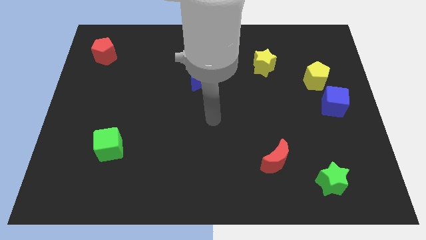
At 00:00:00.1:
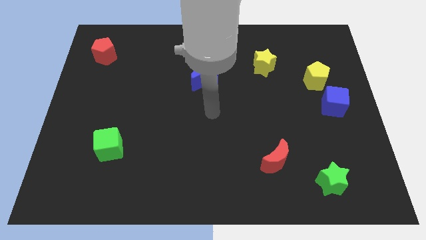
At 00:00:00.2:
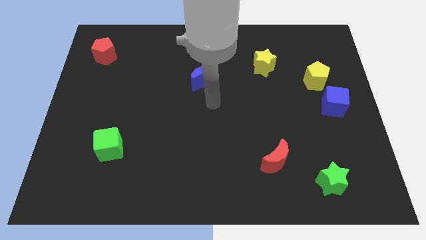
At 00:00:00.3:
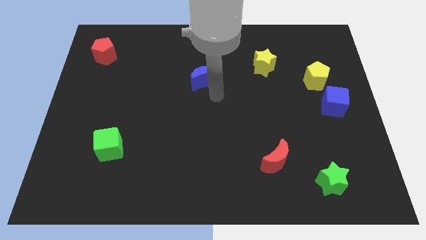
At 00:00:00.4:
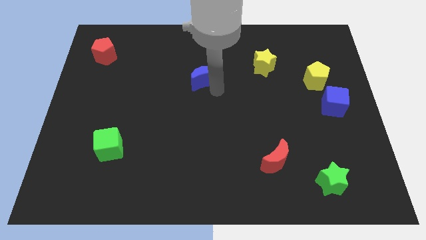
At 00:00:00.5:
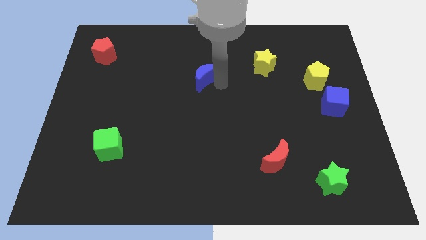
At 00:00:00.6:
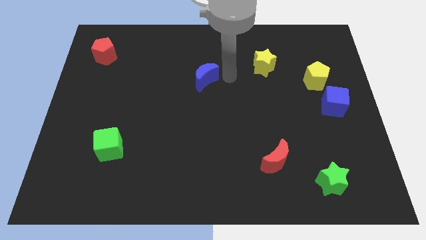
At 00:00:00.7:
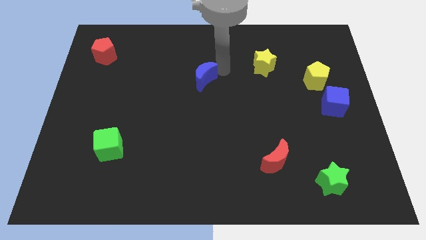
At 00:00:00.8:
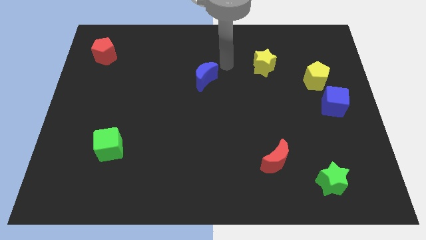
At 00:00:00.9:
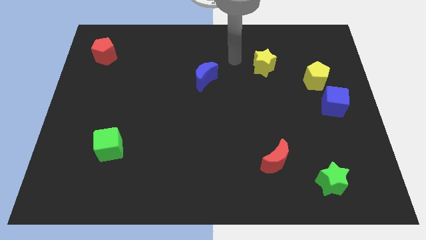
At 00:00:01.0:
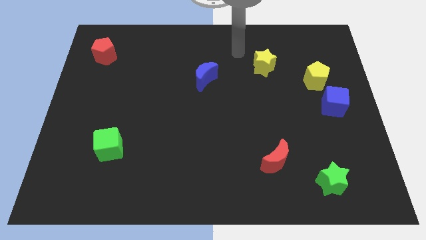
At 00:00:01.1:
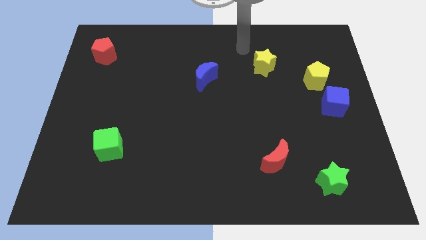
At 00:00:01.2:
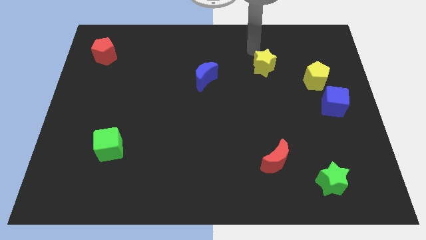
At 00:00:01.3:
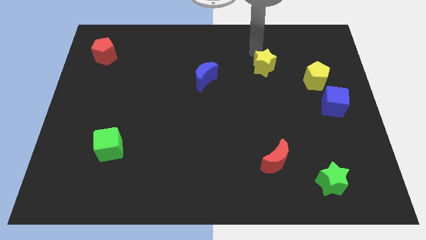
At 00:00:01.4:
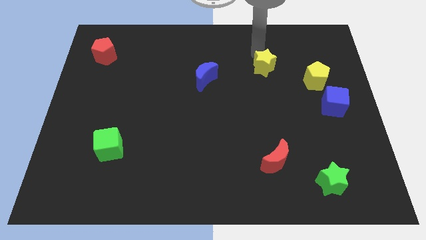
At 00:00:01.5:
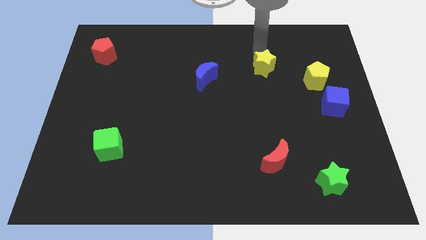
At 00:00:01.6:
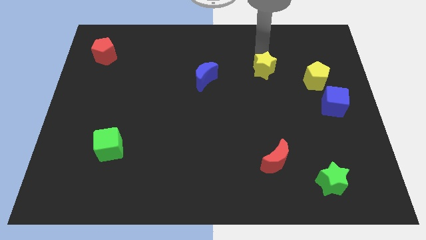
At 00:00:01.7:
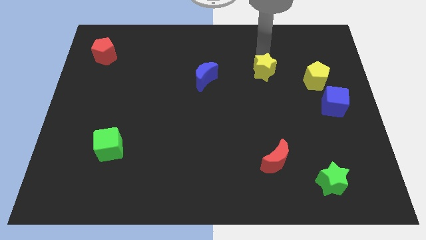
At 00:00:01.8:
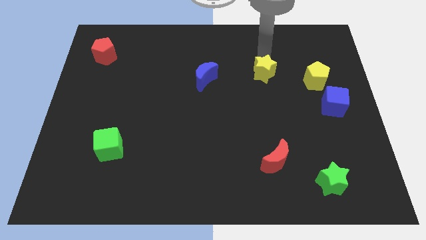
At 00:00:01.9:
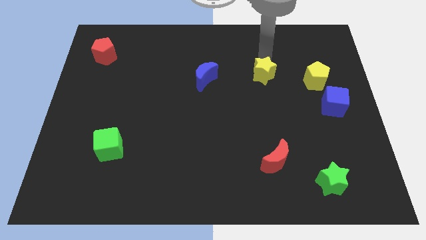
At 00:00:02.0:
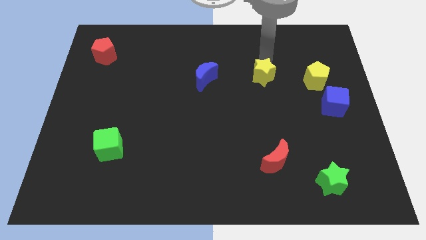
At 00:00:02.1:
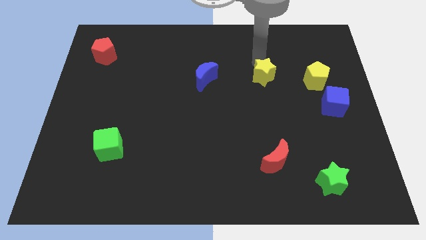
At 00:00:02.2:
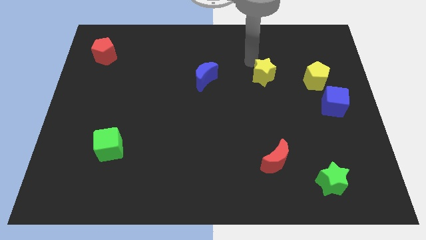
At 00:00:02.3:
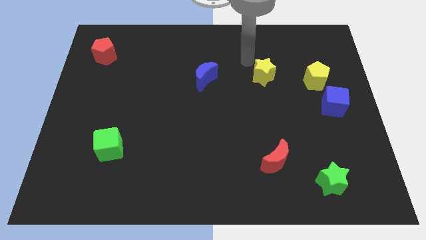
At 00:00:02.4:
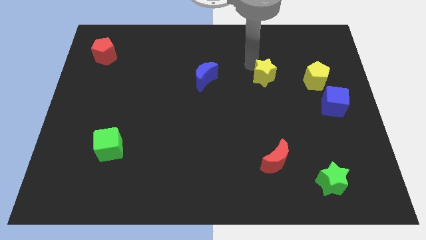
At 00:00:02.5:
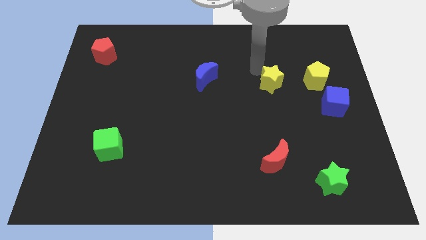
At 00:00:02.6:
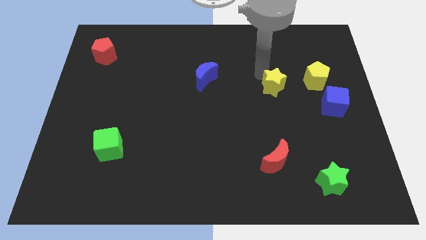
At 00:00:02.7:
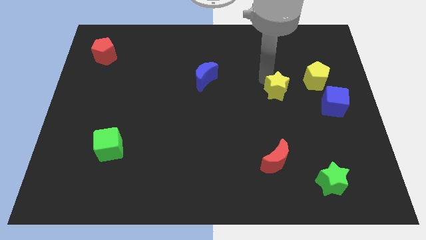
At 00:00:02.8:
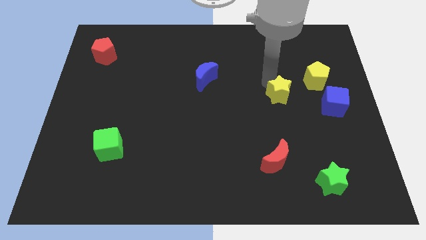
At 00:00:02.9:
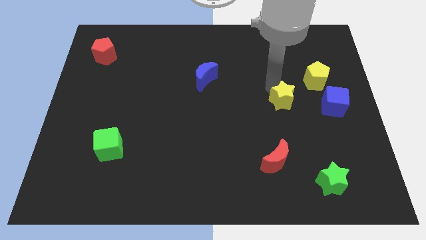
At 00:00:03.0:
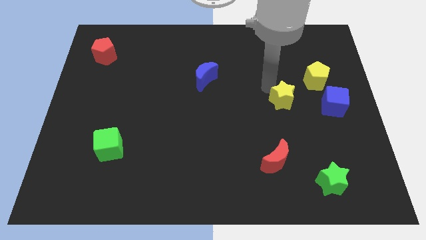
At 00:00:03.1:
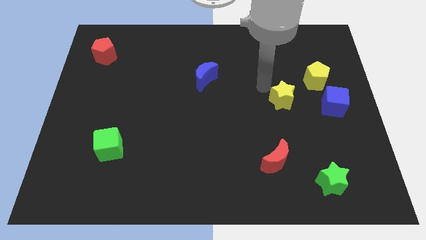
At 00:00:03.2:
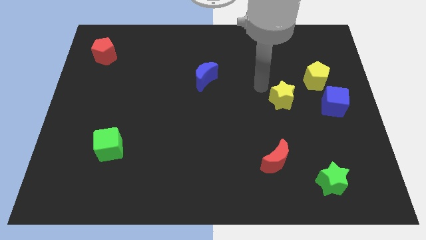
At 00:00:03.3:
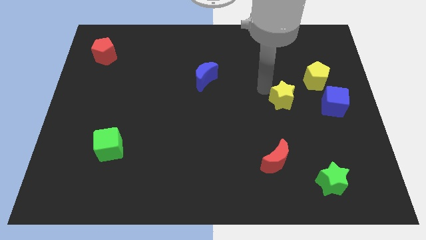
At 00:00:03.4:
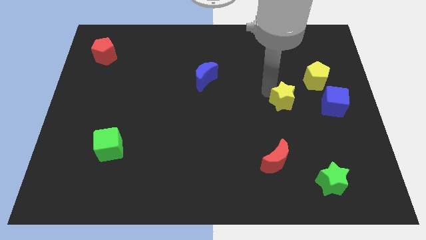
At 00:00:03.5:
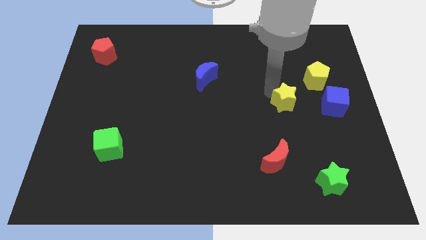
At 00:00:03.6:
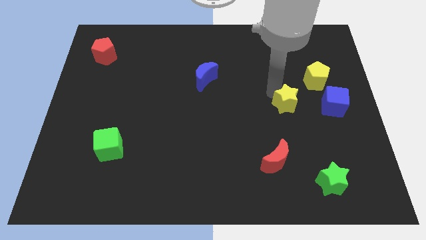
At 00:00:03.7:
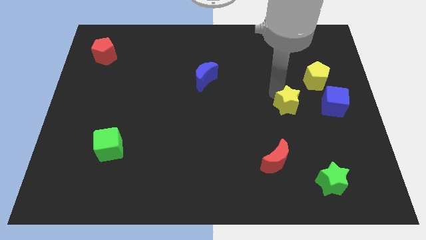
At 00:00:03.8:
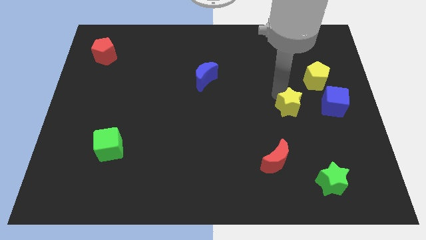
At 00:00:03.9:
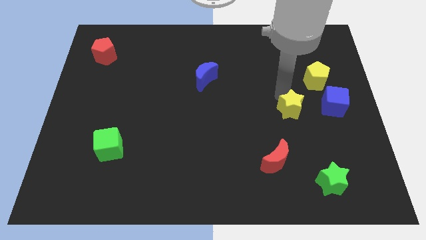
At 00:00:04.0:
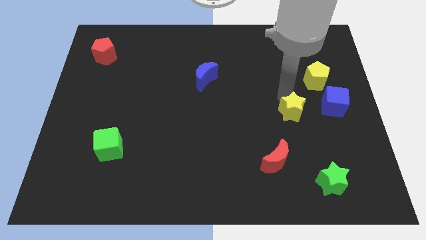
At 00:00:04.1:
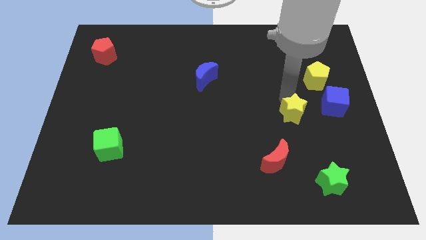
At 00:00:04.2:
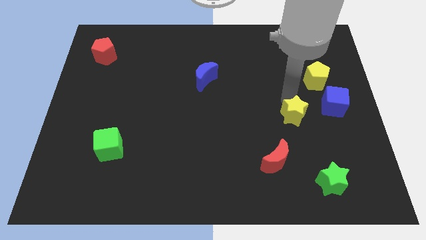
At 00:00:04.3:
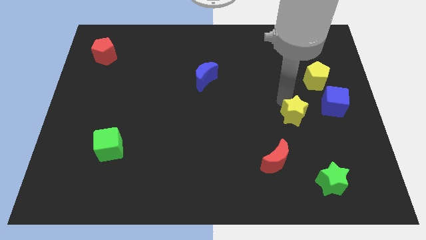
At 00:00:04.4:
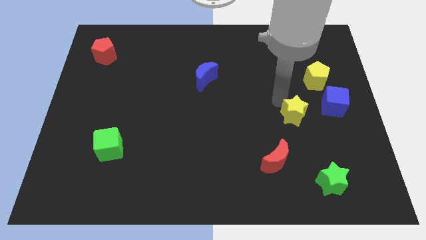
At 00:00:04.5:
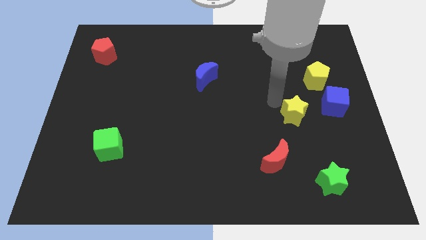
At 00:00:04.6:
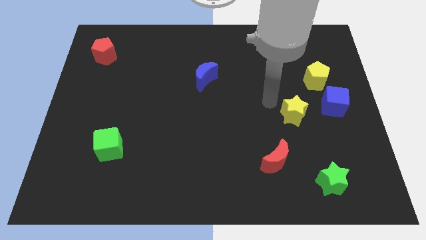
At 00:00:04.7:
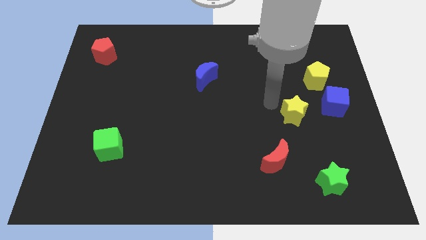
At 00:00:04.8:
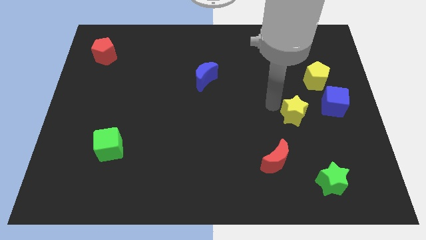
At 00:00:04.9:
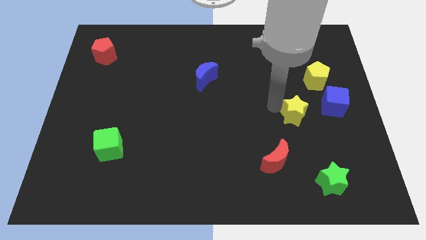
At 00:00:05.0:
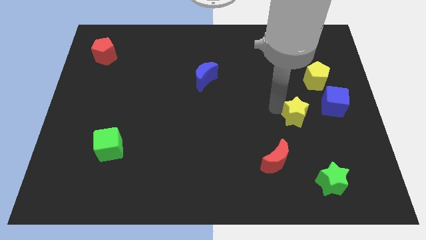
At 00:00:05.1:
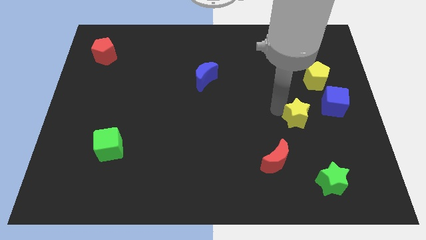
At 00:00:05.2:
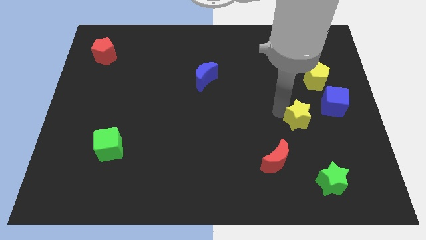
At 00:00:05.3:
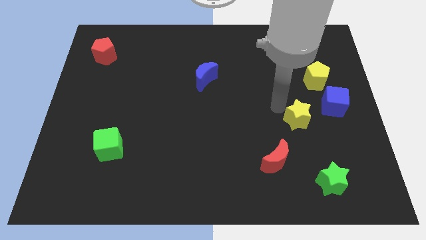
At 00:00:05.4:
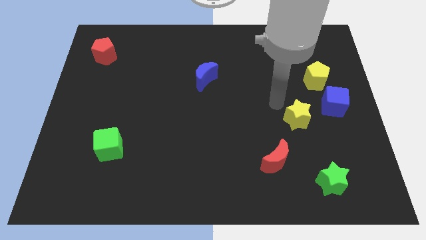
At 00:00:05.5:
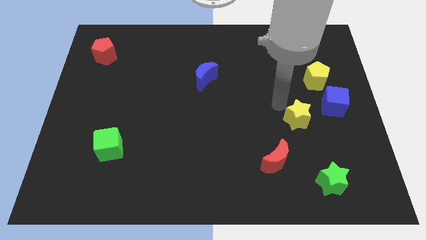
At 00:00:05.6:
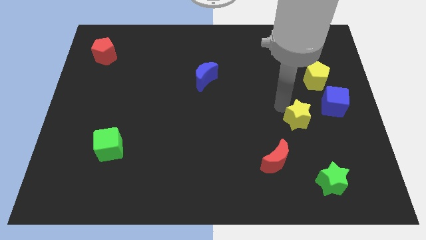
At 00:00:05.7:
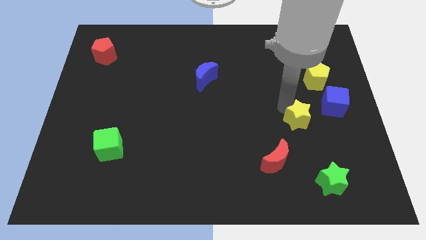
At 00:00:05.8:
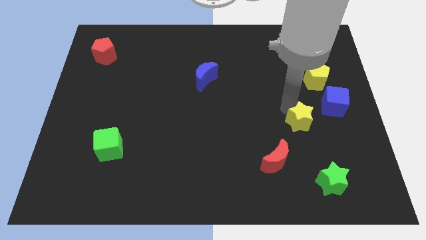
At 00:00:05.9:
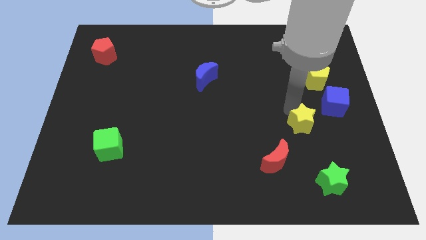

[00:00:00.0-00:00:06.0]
slide the yellow star to the top of the green star
